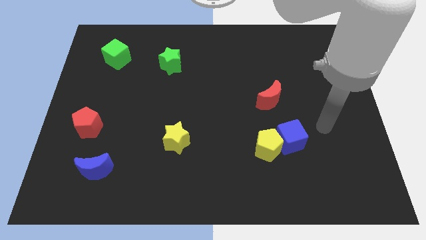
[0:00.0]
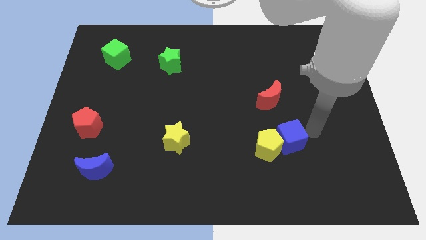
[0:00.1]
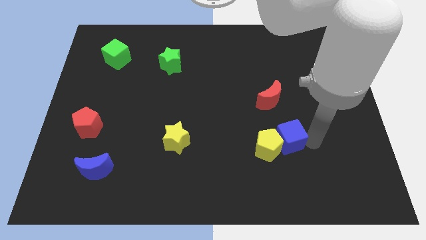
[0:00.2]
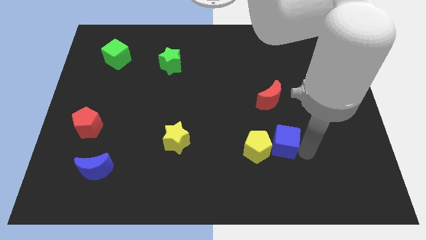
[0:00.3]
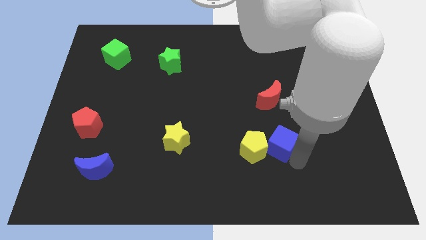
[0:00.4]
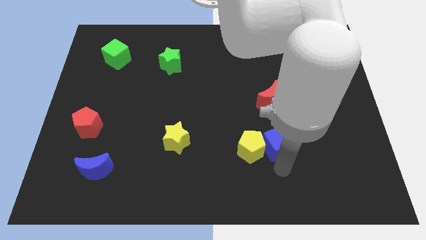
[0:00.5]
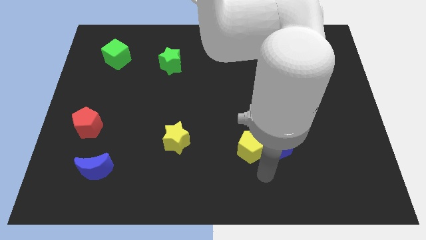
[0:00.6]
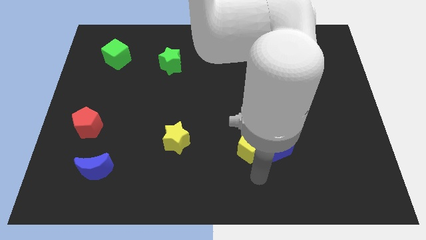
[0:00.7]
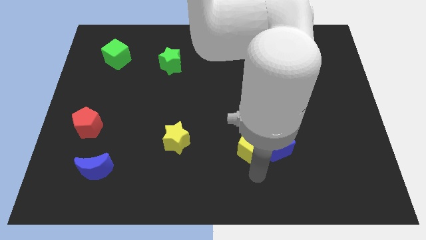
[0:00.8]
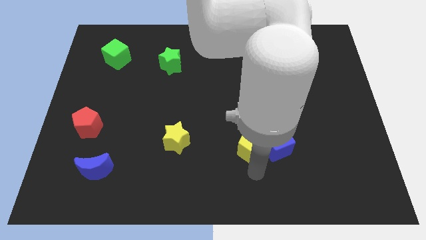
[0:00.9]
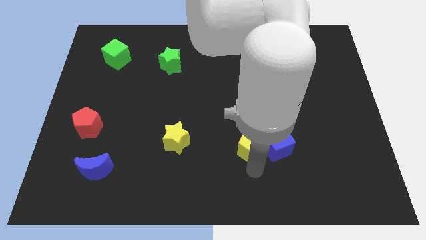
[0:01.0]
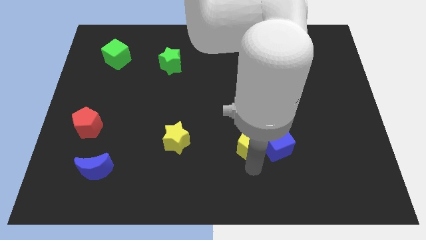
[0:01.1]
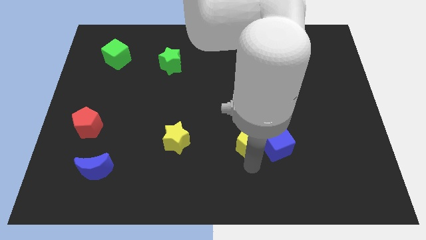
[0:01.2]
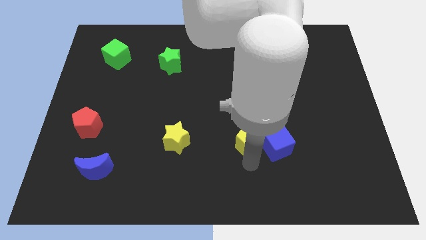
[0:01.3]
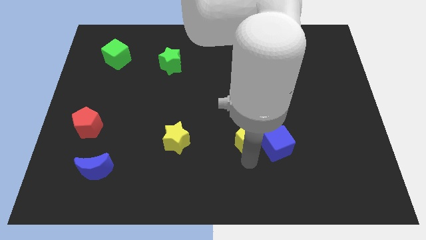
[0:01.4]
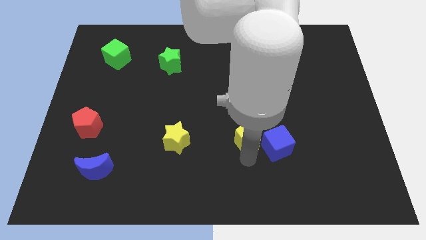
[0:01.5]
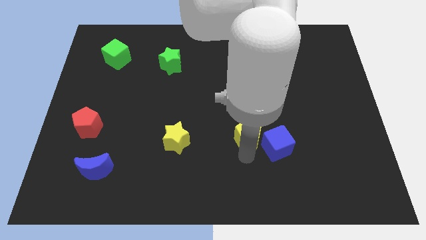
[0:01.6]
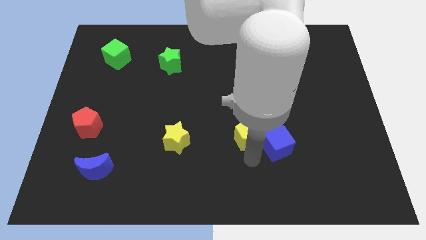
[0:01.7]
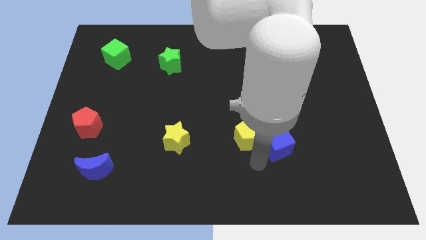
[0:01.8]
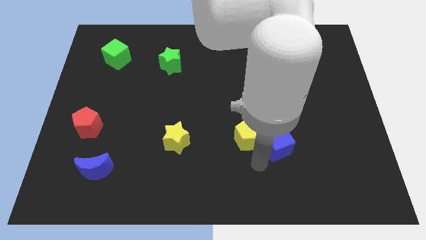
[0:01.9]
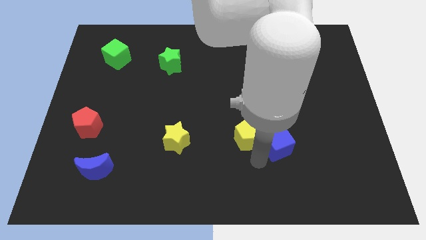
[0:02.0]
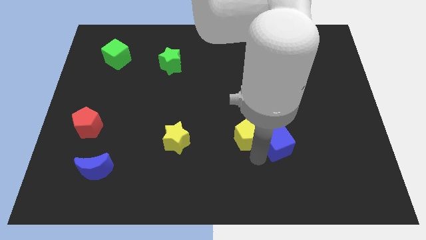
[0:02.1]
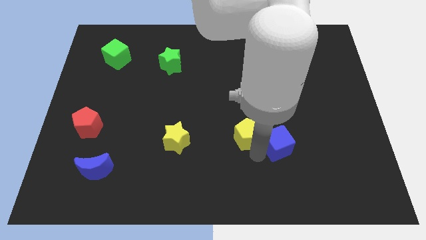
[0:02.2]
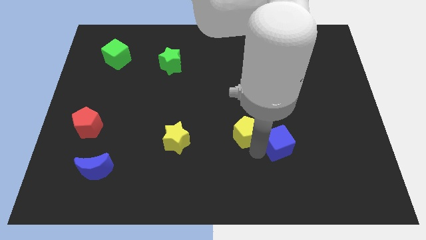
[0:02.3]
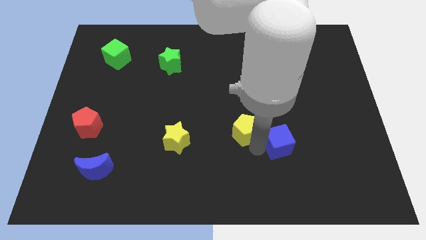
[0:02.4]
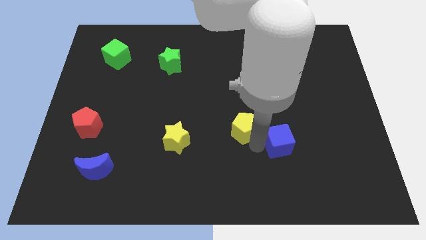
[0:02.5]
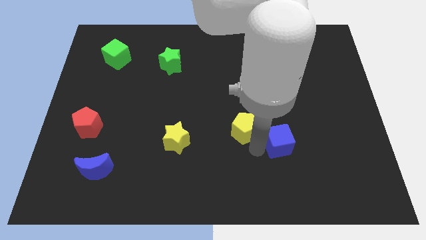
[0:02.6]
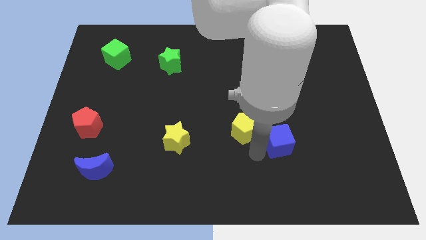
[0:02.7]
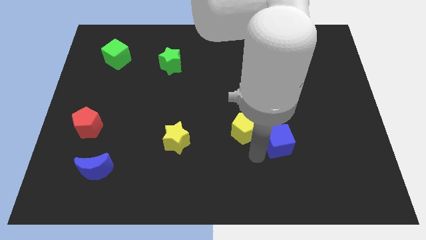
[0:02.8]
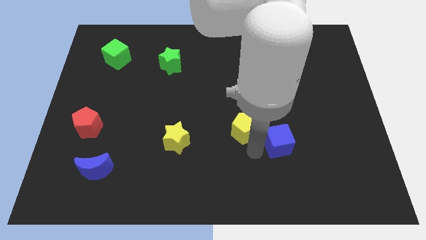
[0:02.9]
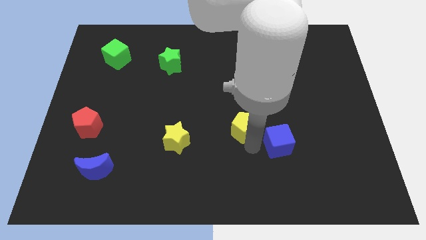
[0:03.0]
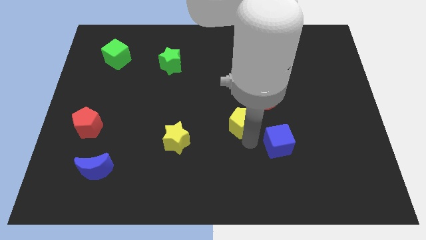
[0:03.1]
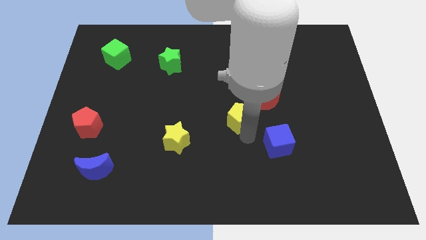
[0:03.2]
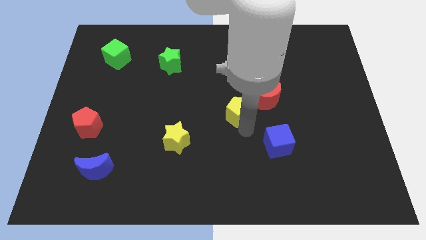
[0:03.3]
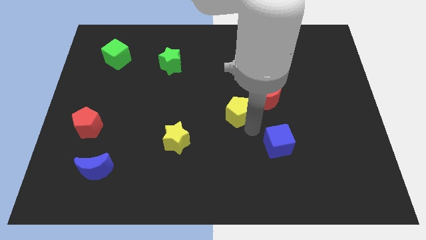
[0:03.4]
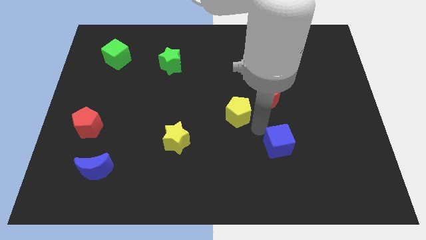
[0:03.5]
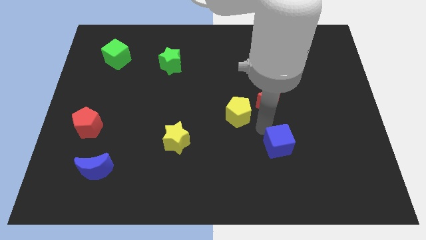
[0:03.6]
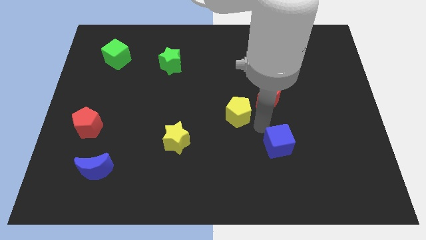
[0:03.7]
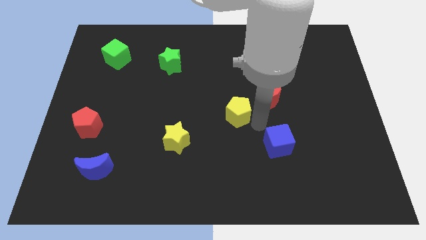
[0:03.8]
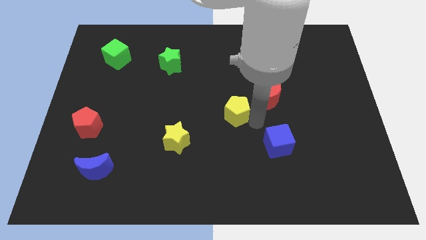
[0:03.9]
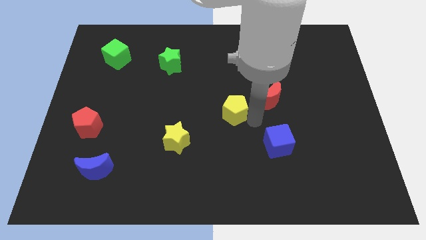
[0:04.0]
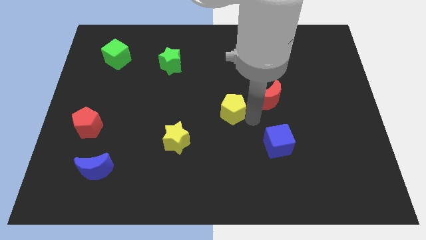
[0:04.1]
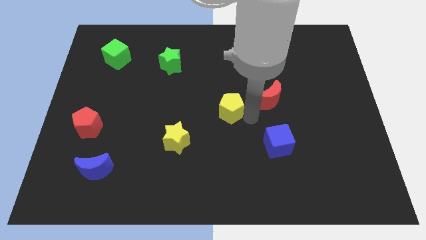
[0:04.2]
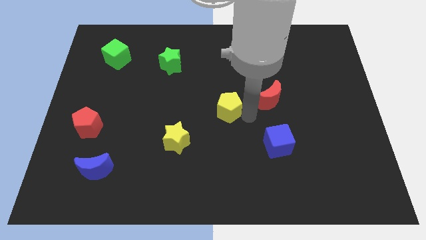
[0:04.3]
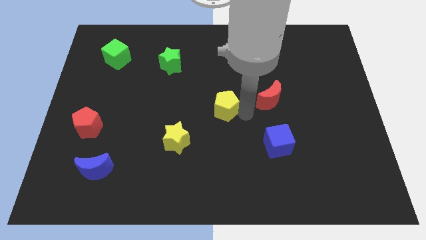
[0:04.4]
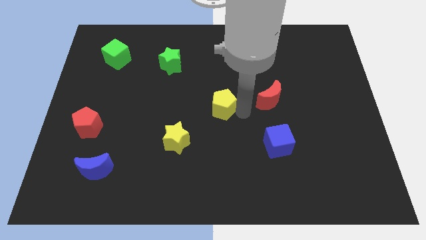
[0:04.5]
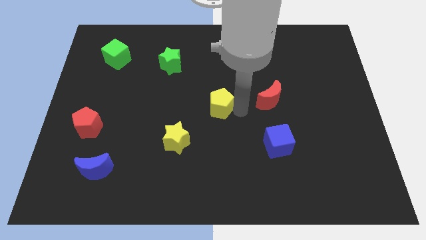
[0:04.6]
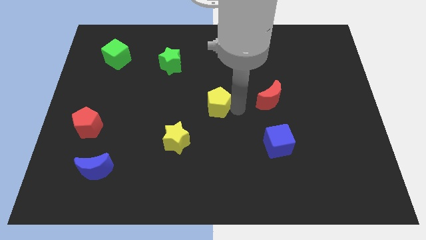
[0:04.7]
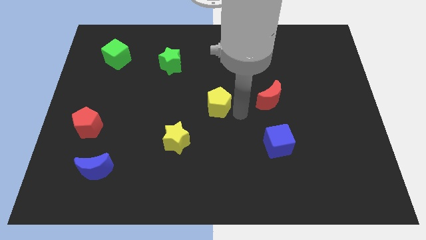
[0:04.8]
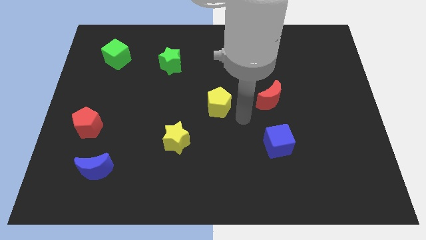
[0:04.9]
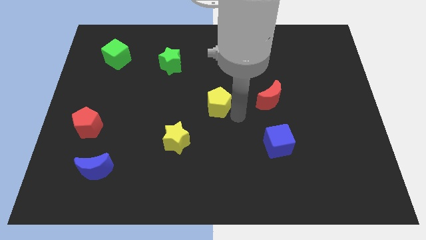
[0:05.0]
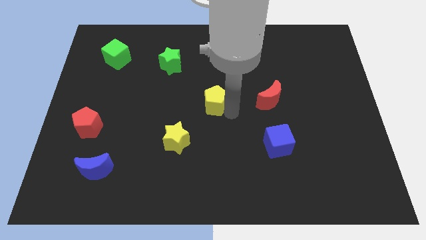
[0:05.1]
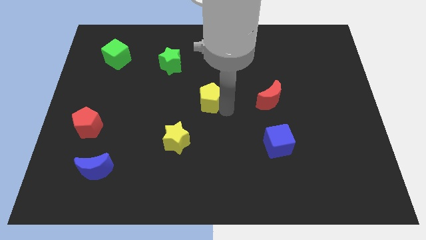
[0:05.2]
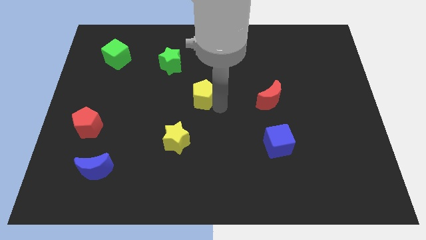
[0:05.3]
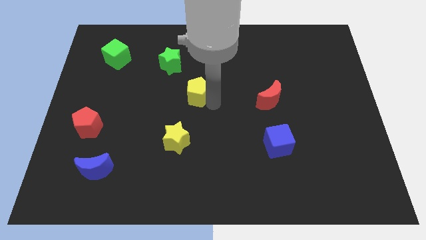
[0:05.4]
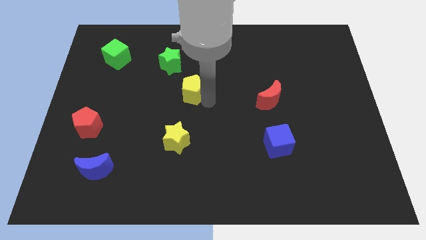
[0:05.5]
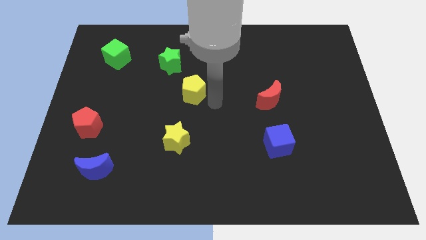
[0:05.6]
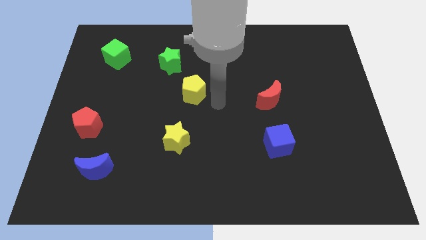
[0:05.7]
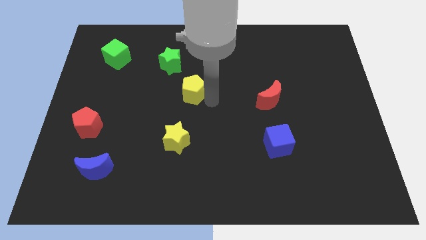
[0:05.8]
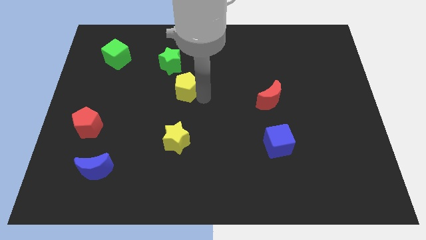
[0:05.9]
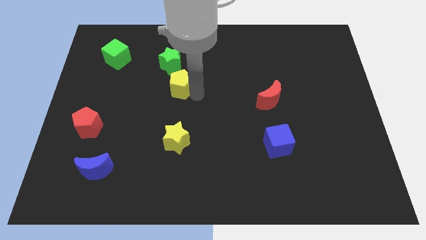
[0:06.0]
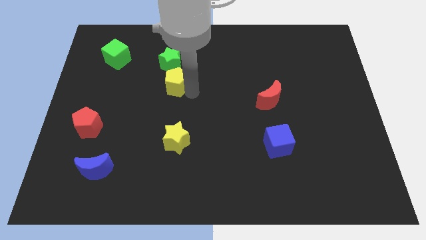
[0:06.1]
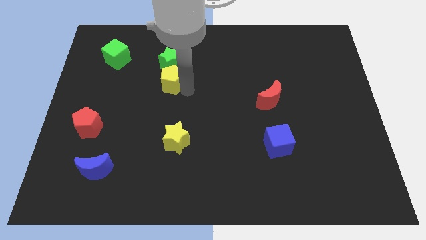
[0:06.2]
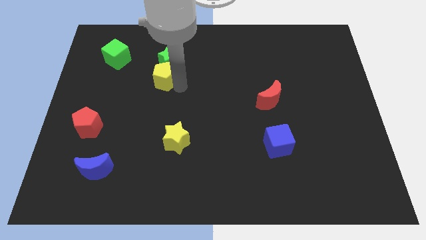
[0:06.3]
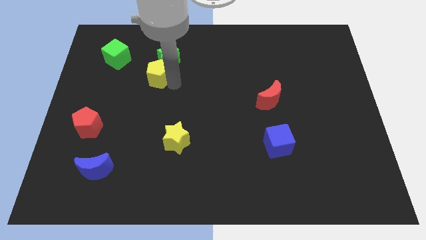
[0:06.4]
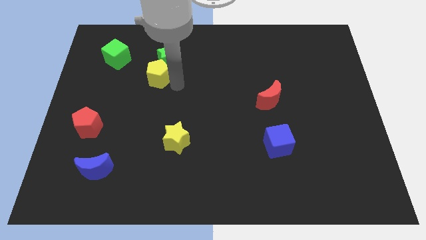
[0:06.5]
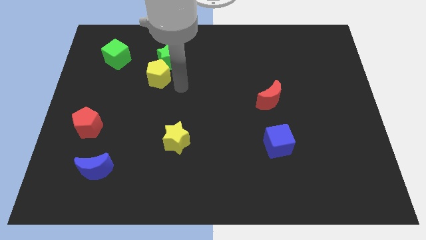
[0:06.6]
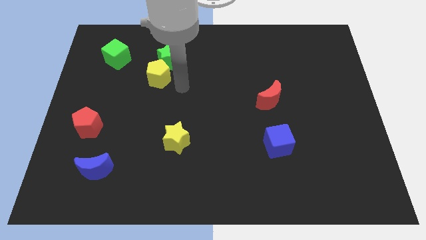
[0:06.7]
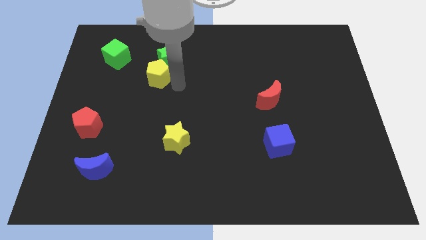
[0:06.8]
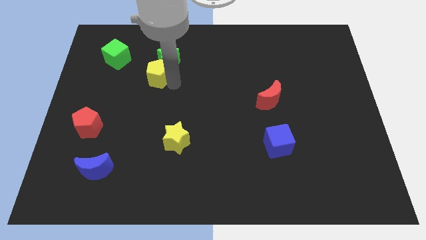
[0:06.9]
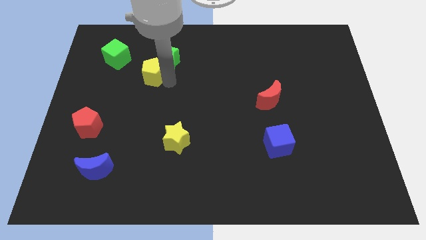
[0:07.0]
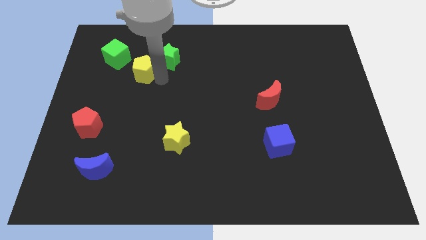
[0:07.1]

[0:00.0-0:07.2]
push the yellow pentagon to the left side of the green star

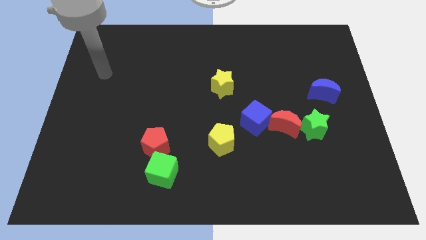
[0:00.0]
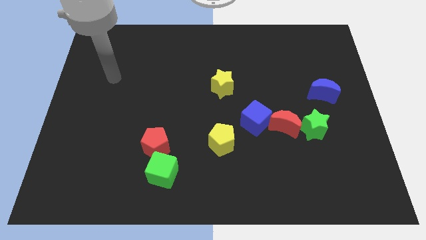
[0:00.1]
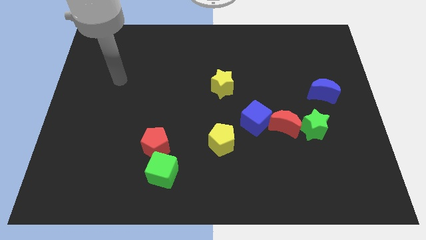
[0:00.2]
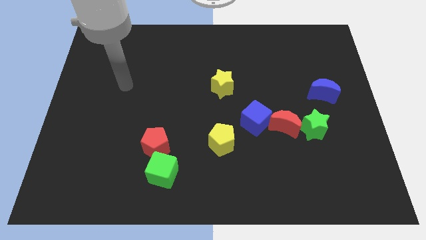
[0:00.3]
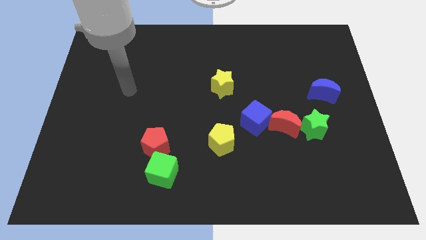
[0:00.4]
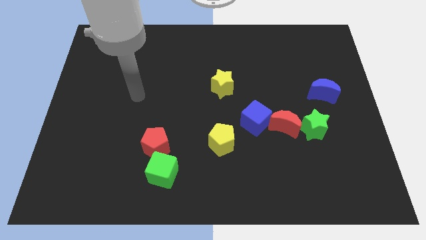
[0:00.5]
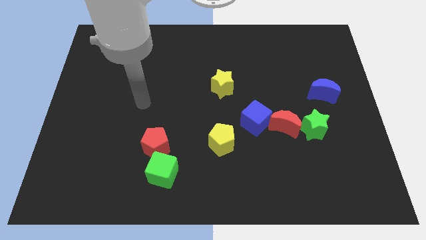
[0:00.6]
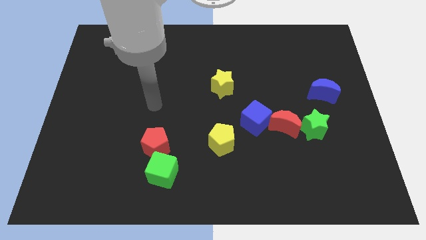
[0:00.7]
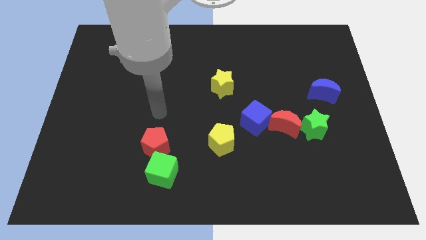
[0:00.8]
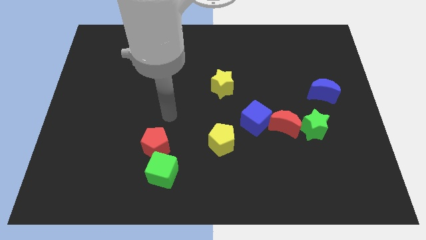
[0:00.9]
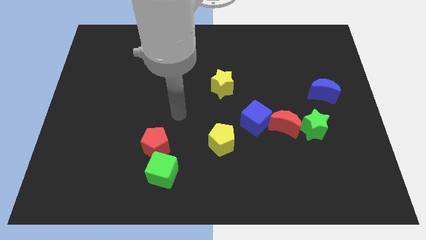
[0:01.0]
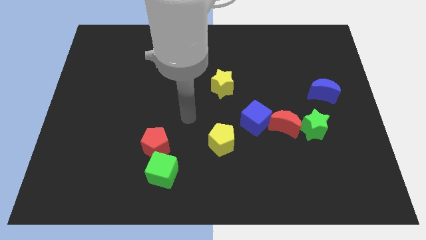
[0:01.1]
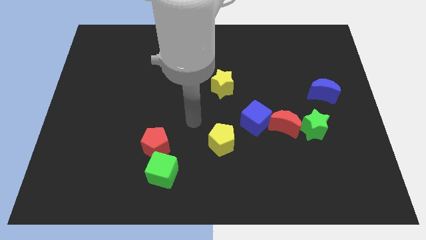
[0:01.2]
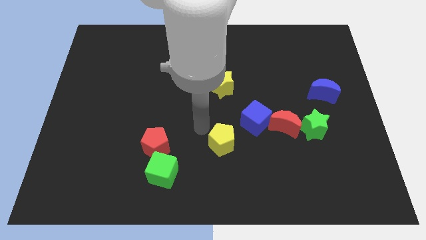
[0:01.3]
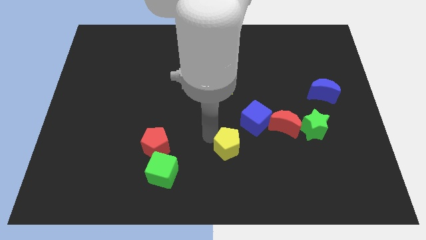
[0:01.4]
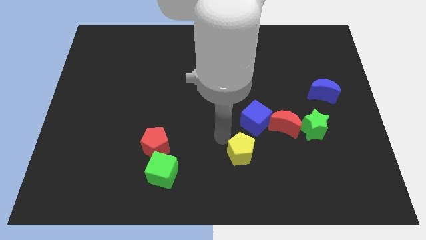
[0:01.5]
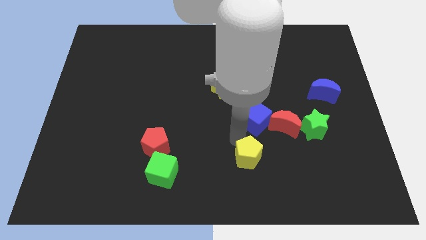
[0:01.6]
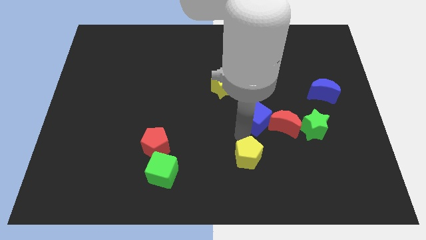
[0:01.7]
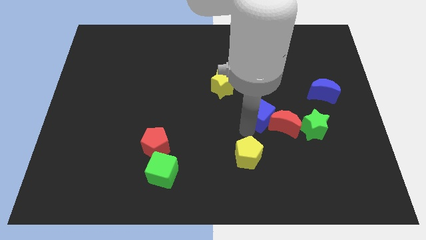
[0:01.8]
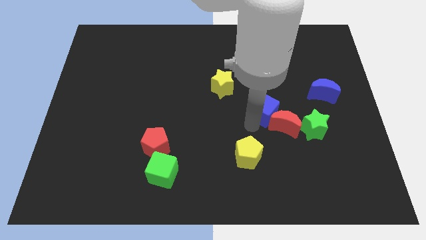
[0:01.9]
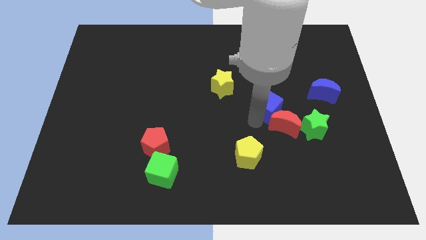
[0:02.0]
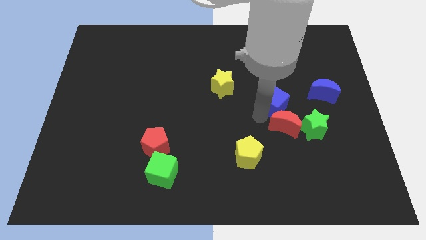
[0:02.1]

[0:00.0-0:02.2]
slide the blue cube just left of the blue moon
